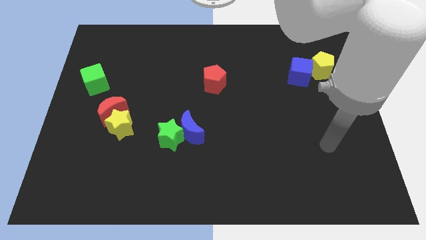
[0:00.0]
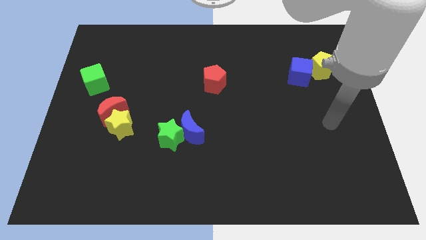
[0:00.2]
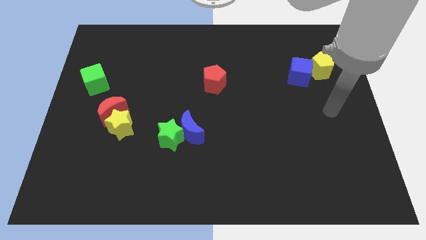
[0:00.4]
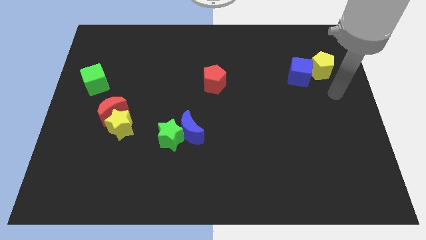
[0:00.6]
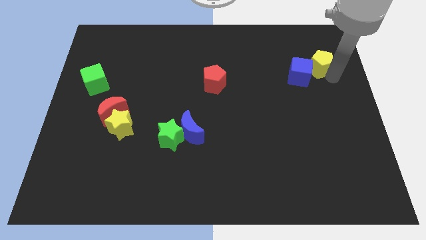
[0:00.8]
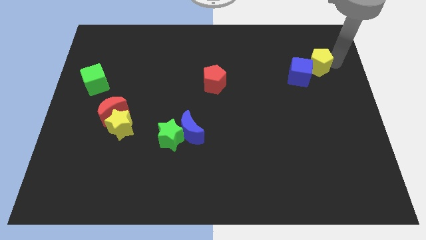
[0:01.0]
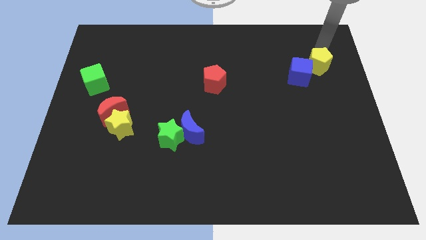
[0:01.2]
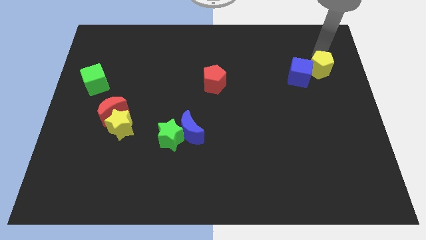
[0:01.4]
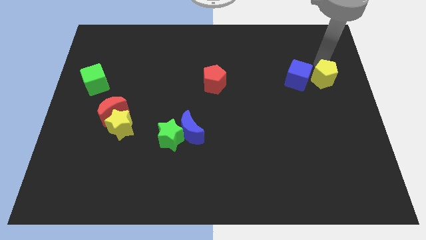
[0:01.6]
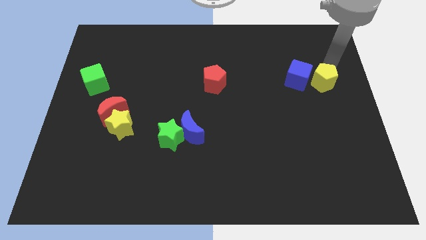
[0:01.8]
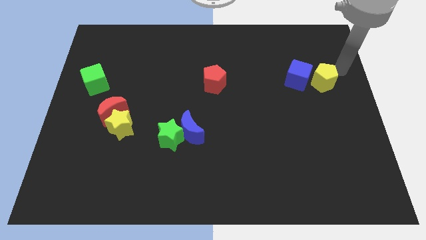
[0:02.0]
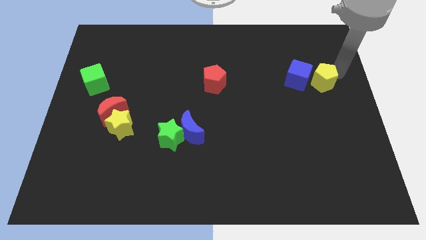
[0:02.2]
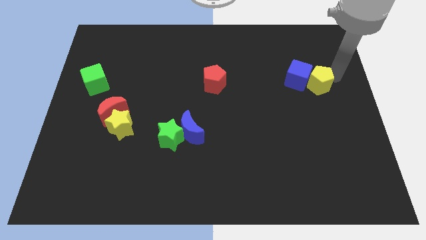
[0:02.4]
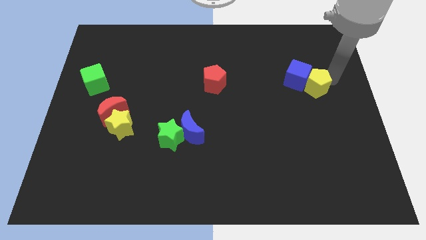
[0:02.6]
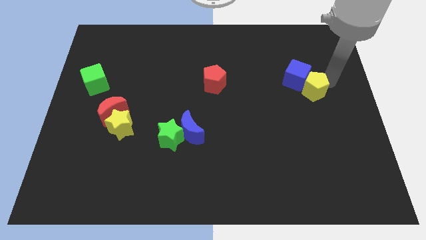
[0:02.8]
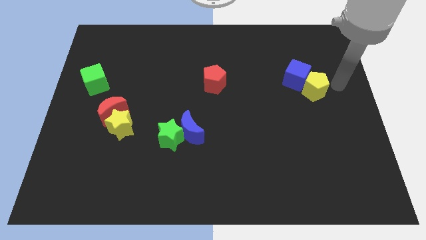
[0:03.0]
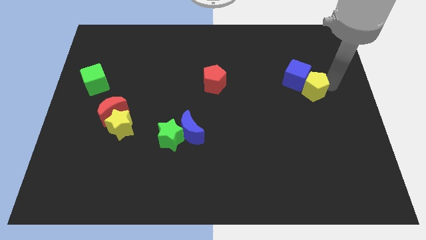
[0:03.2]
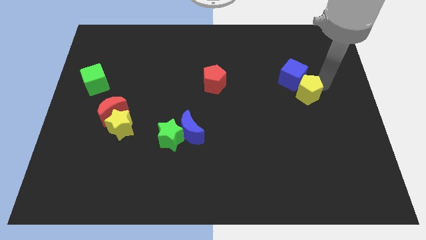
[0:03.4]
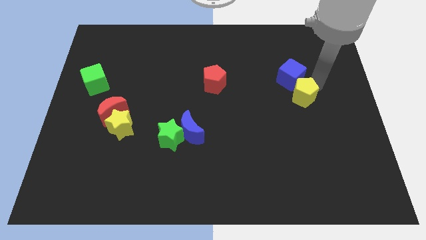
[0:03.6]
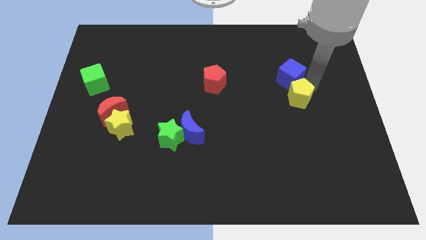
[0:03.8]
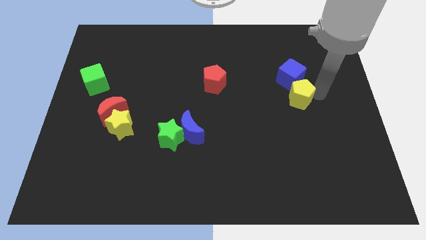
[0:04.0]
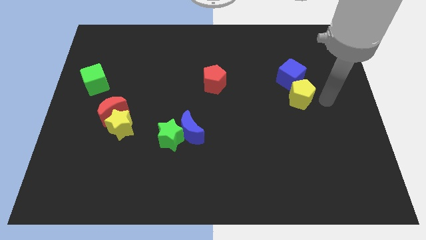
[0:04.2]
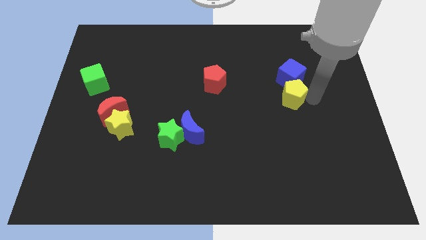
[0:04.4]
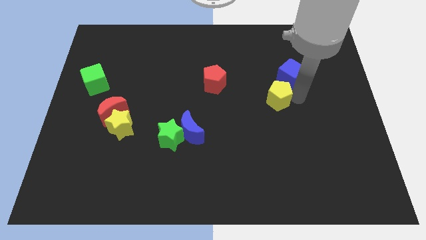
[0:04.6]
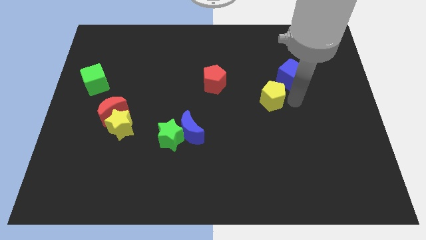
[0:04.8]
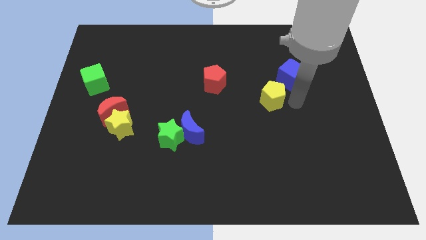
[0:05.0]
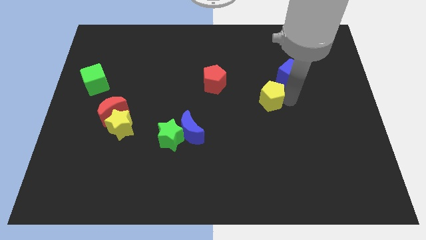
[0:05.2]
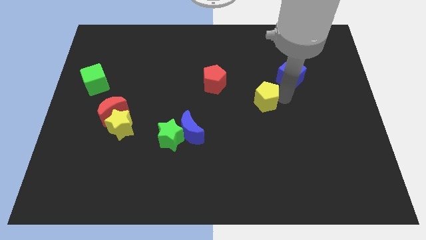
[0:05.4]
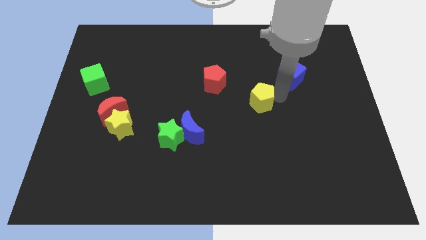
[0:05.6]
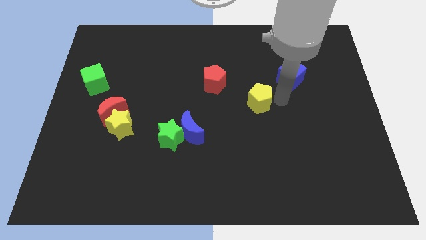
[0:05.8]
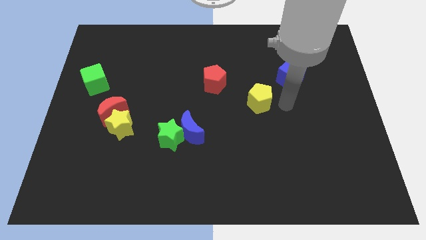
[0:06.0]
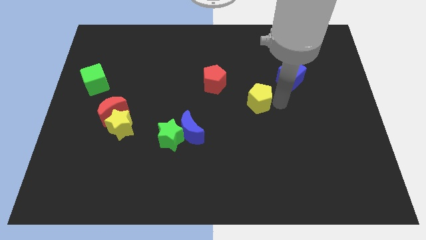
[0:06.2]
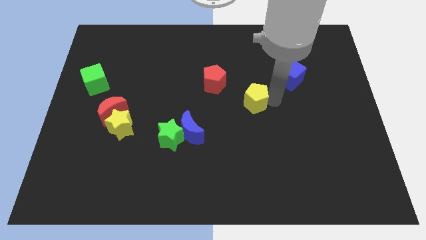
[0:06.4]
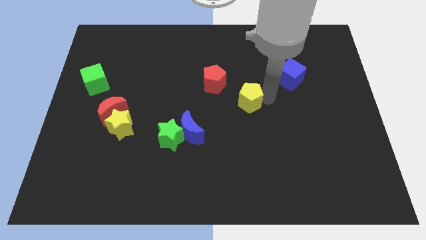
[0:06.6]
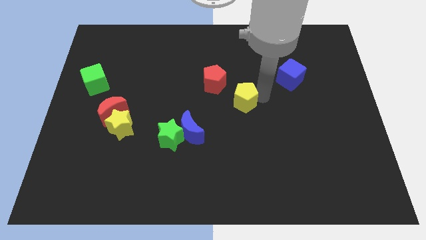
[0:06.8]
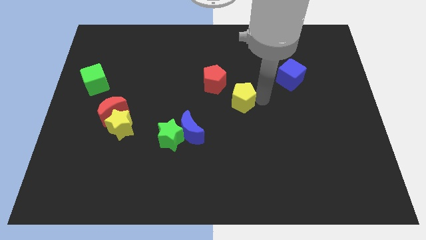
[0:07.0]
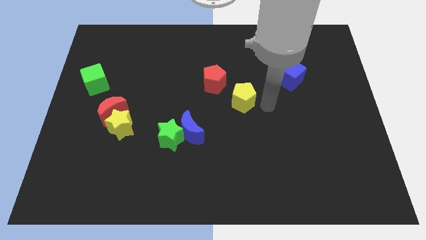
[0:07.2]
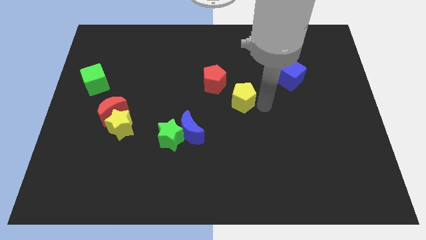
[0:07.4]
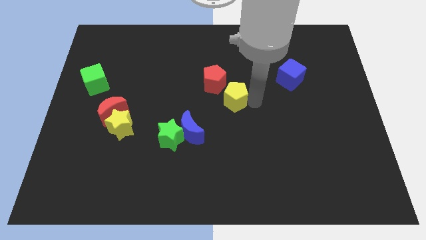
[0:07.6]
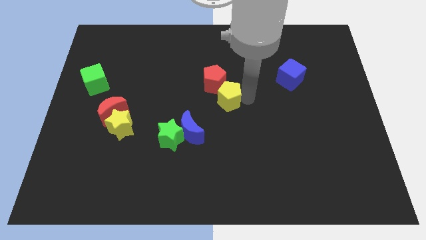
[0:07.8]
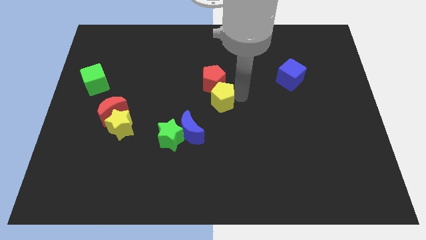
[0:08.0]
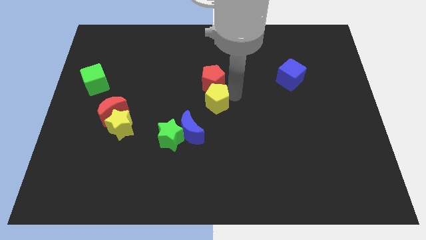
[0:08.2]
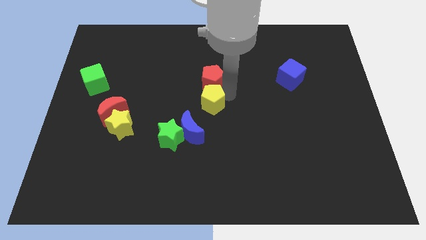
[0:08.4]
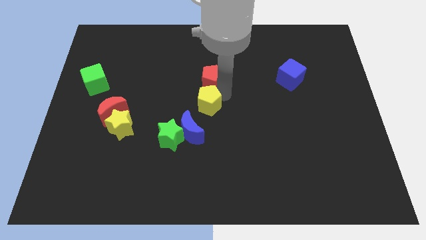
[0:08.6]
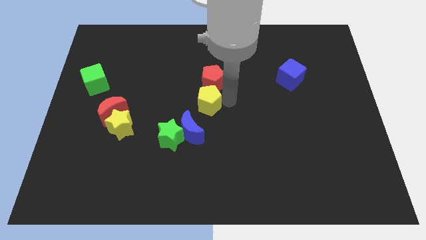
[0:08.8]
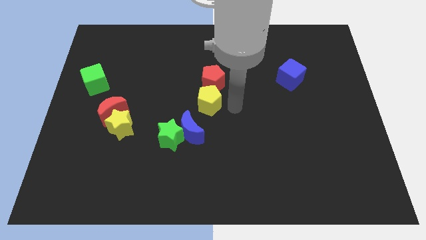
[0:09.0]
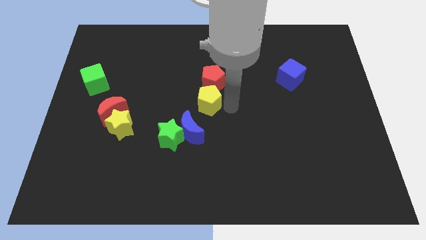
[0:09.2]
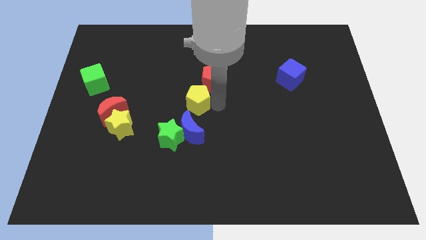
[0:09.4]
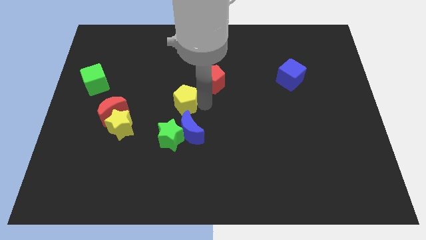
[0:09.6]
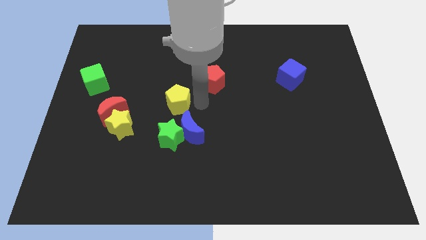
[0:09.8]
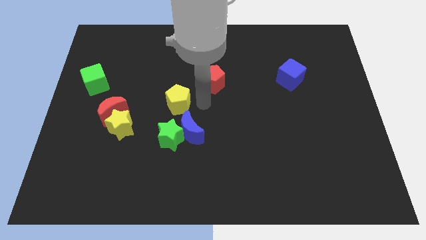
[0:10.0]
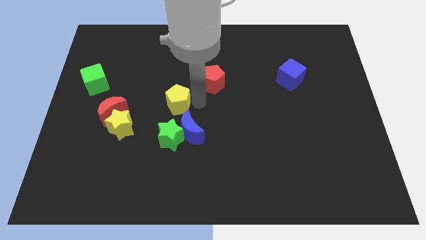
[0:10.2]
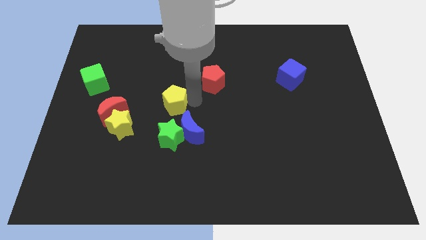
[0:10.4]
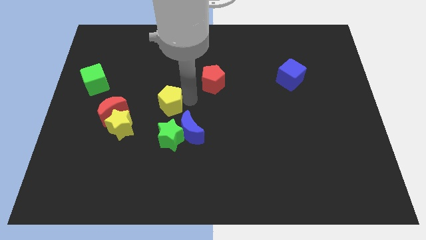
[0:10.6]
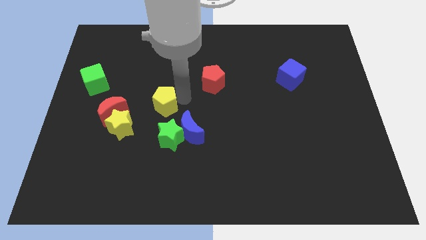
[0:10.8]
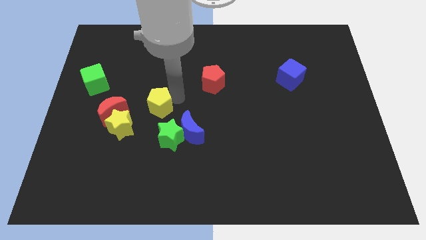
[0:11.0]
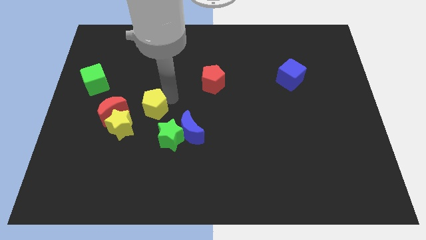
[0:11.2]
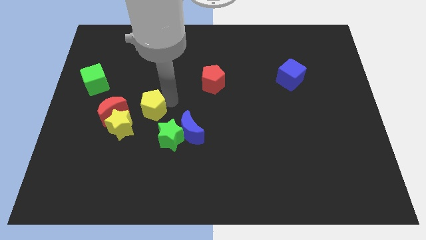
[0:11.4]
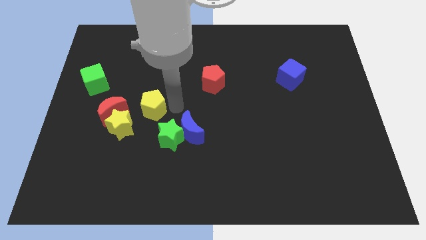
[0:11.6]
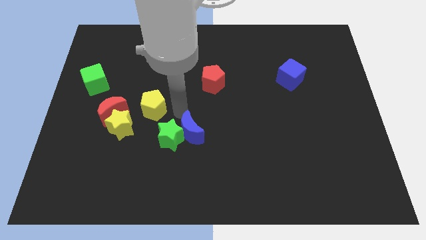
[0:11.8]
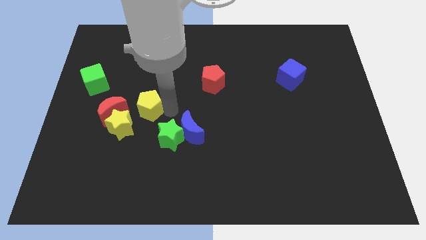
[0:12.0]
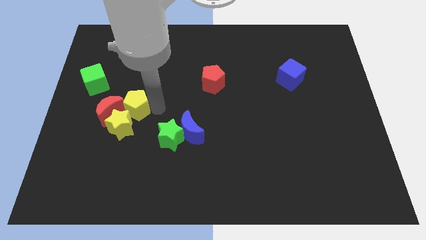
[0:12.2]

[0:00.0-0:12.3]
move the yellow pentagon towards the red moon

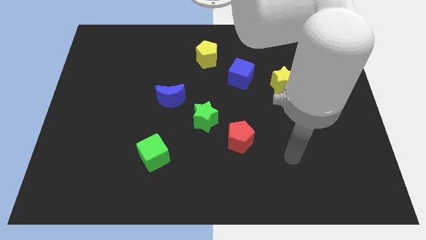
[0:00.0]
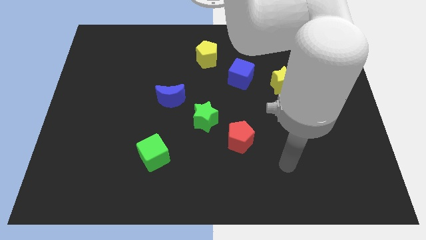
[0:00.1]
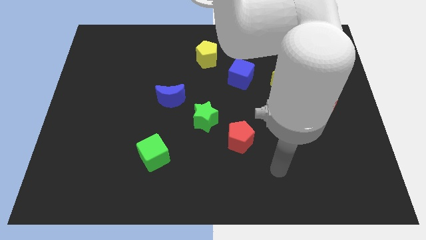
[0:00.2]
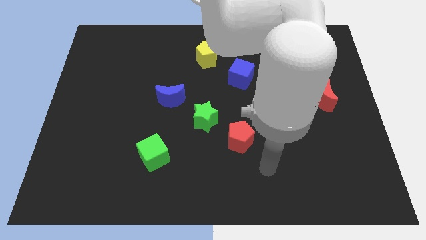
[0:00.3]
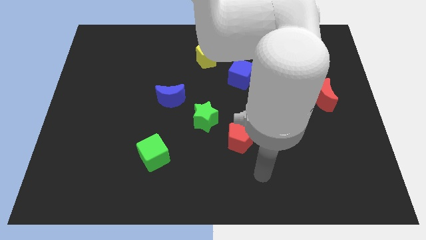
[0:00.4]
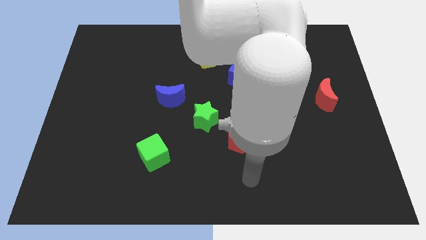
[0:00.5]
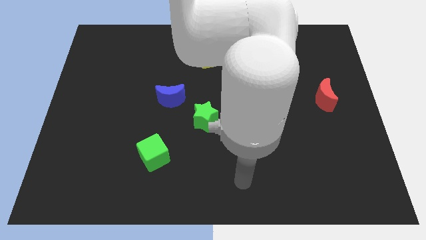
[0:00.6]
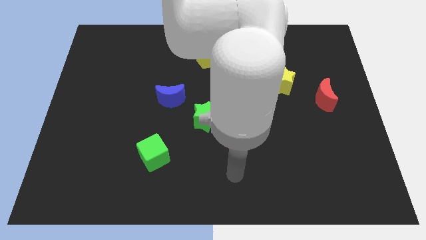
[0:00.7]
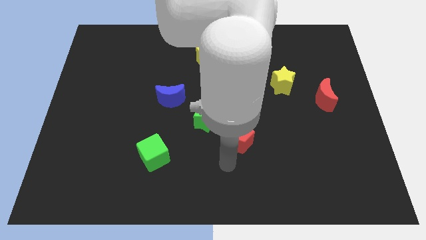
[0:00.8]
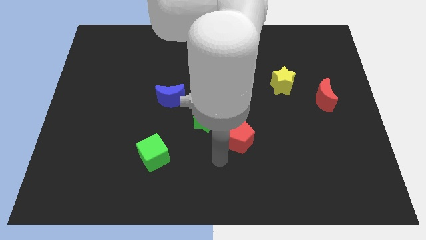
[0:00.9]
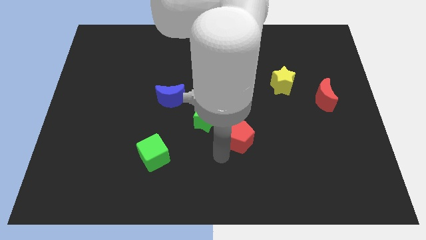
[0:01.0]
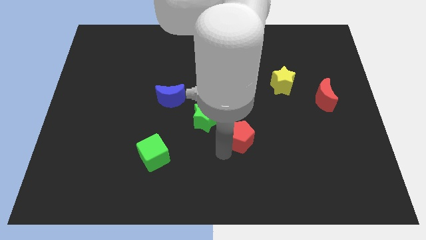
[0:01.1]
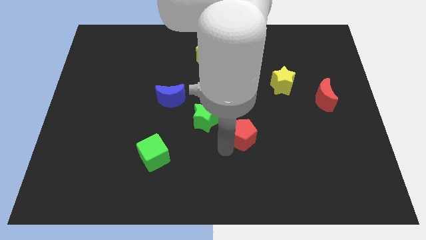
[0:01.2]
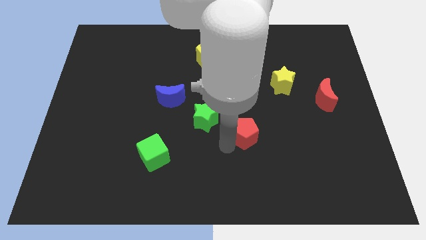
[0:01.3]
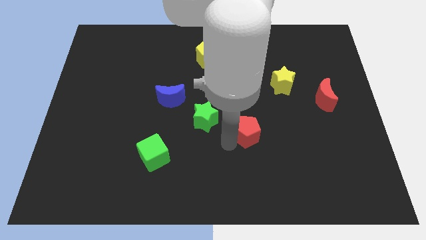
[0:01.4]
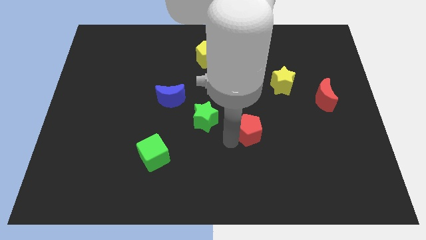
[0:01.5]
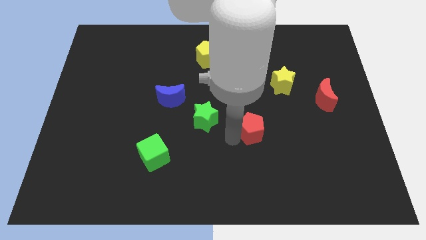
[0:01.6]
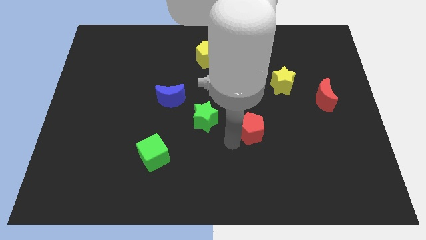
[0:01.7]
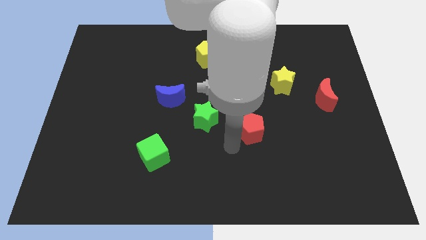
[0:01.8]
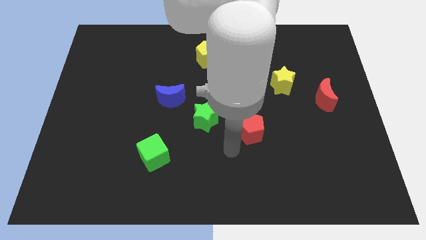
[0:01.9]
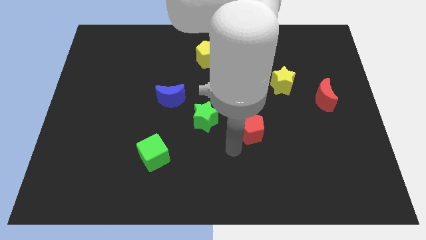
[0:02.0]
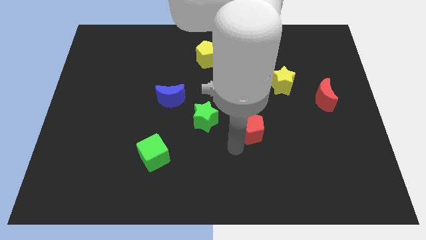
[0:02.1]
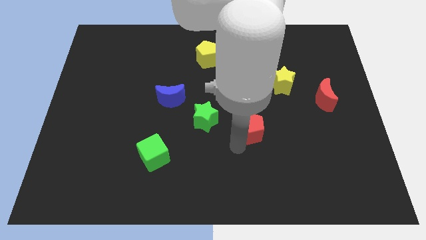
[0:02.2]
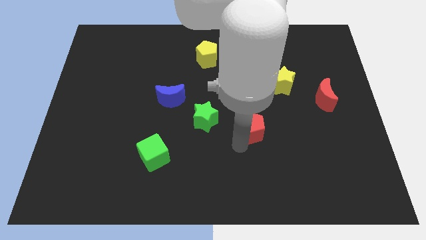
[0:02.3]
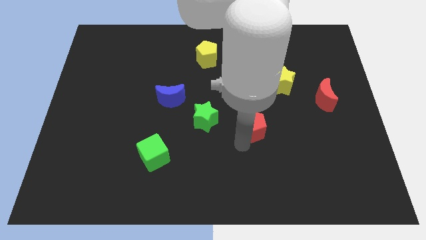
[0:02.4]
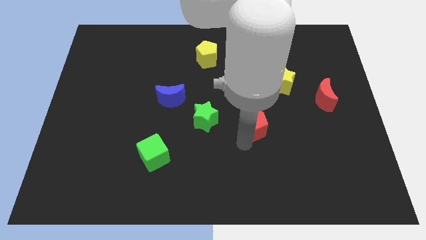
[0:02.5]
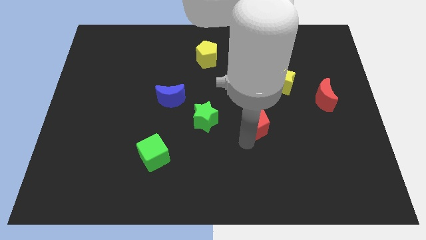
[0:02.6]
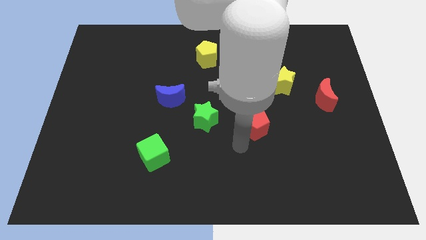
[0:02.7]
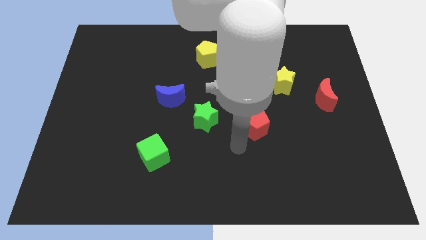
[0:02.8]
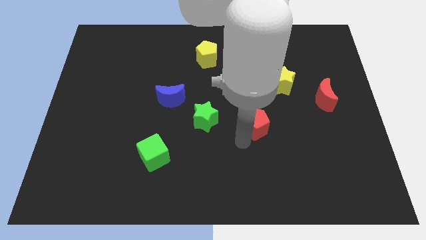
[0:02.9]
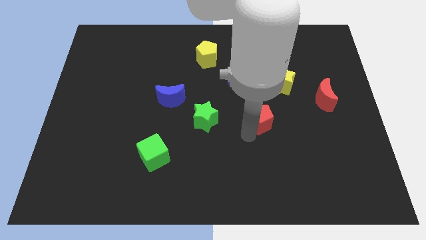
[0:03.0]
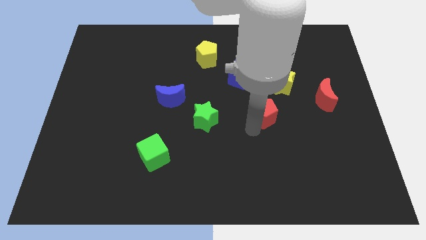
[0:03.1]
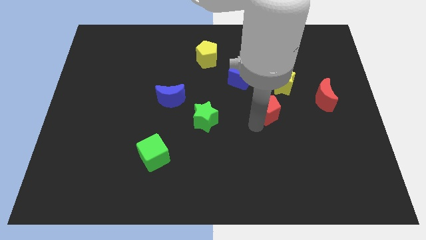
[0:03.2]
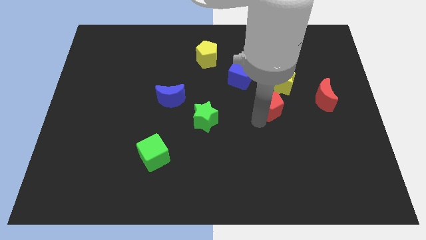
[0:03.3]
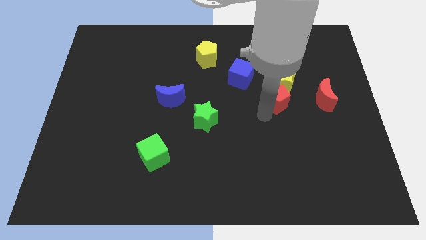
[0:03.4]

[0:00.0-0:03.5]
put the red pentagon towards the yellow star
